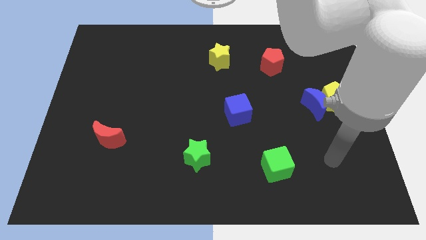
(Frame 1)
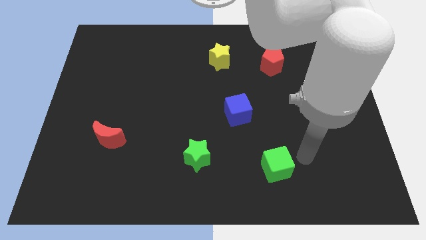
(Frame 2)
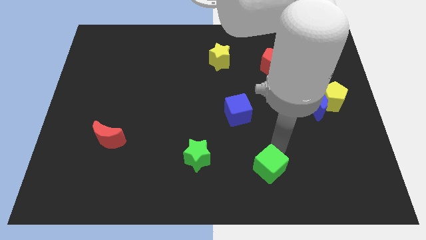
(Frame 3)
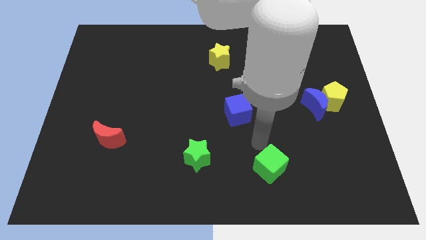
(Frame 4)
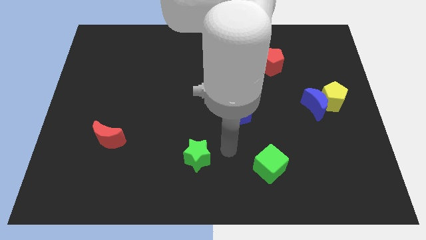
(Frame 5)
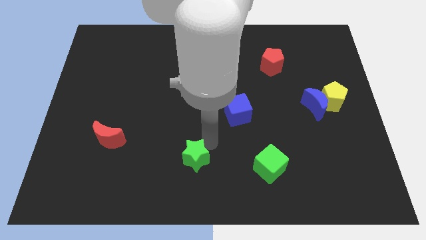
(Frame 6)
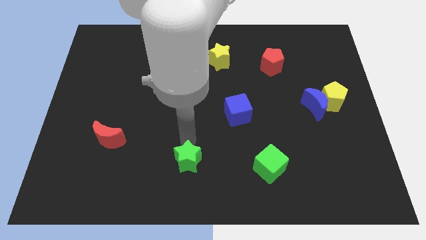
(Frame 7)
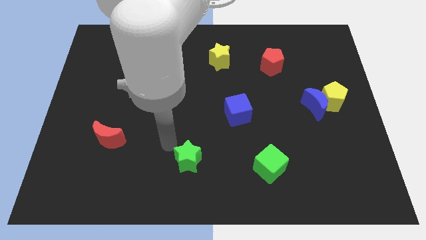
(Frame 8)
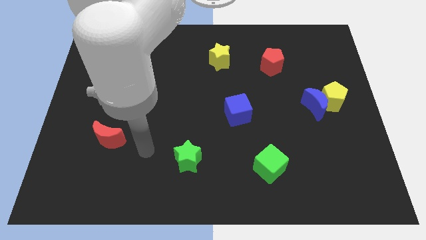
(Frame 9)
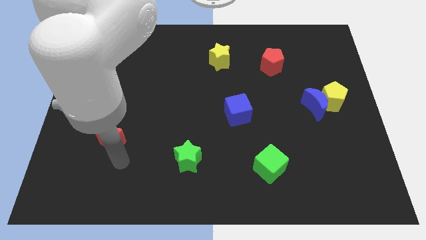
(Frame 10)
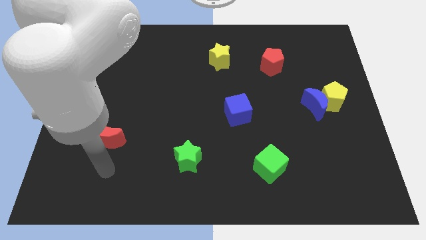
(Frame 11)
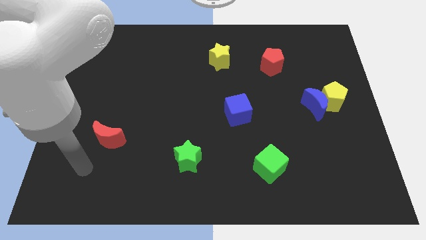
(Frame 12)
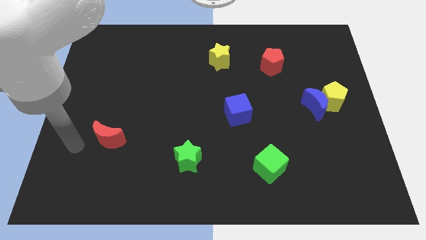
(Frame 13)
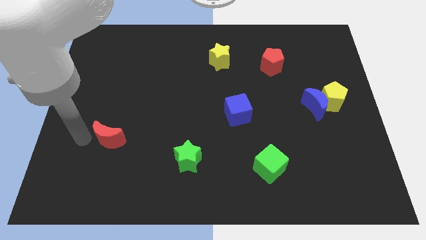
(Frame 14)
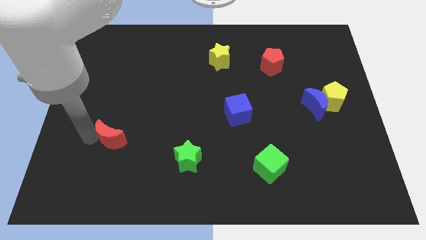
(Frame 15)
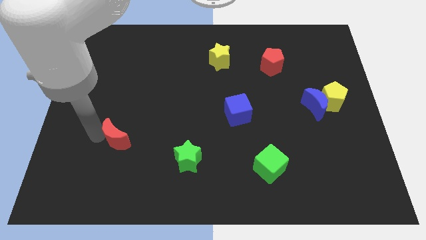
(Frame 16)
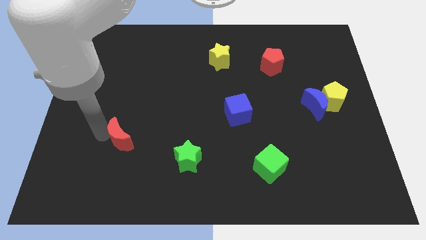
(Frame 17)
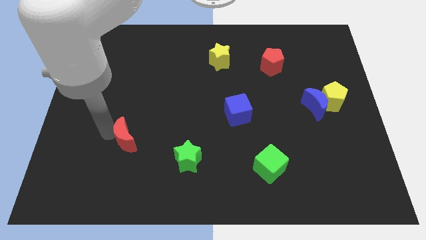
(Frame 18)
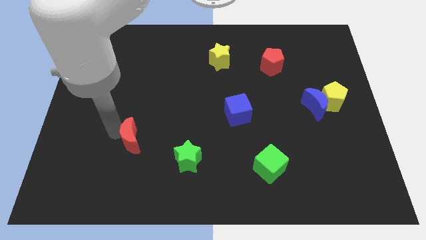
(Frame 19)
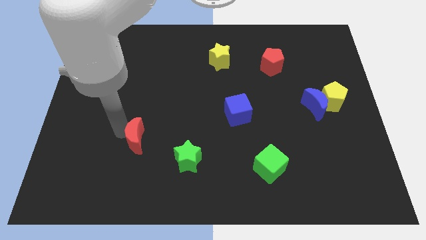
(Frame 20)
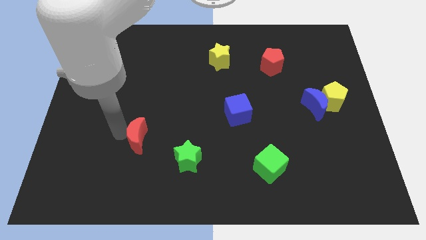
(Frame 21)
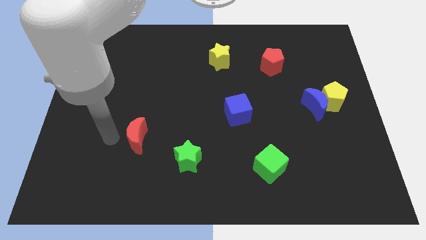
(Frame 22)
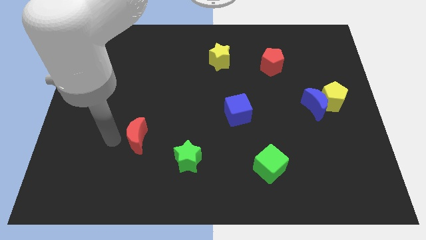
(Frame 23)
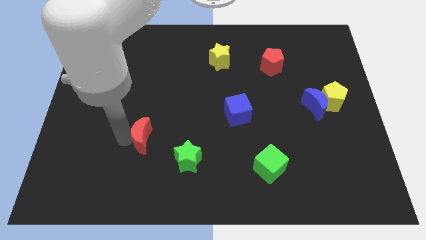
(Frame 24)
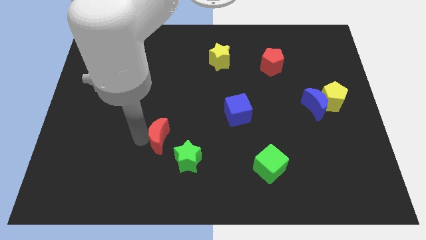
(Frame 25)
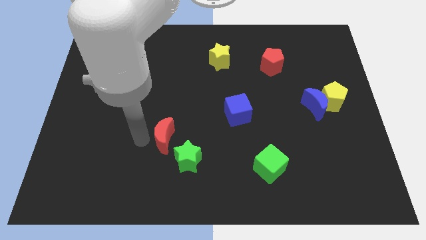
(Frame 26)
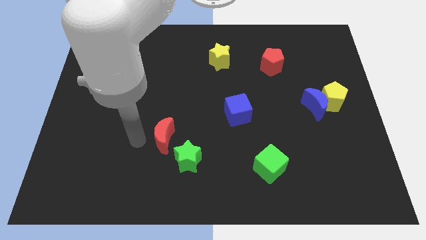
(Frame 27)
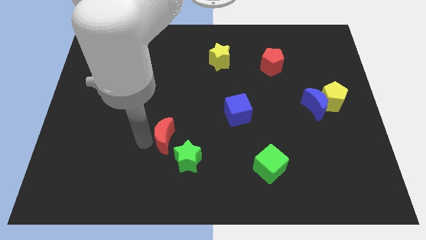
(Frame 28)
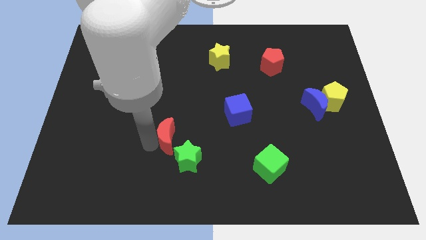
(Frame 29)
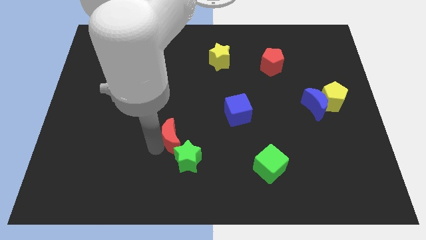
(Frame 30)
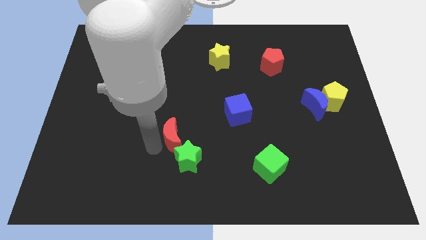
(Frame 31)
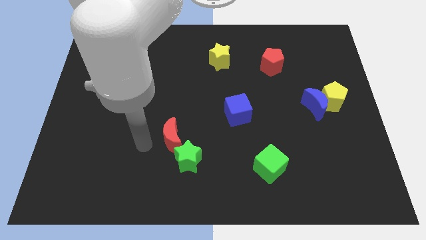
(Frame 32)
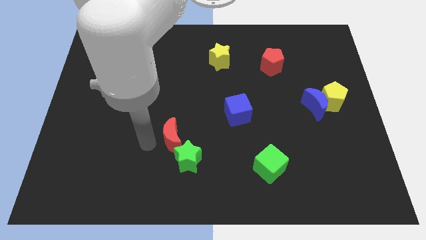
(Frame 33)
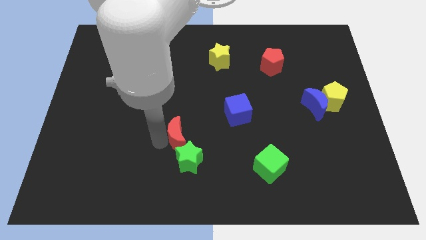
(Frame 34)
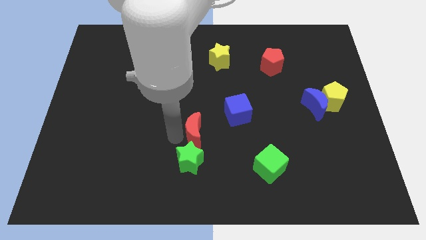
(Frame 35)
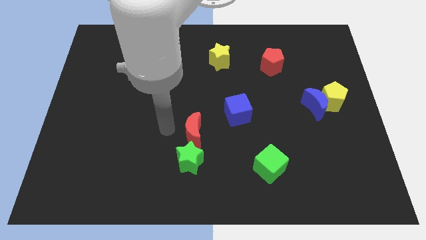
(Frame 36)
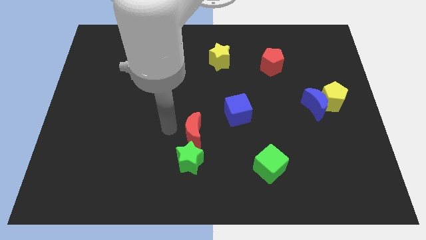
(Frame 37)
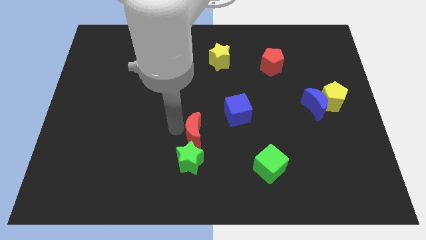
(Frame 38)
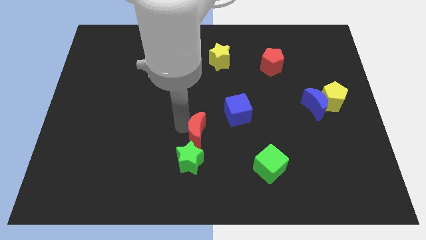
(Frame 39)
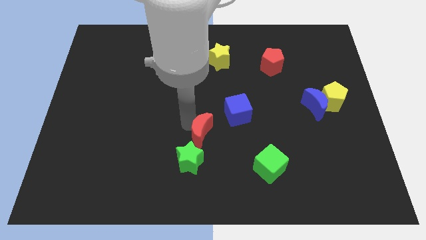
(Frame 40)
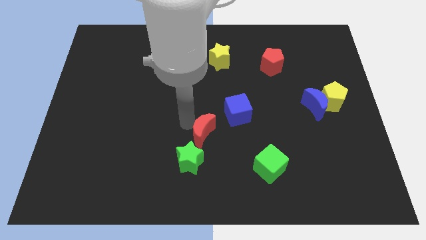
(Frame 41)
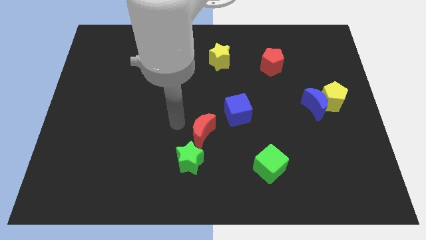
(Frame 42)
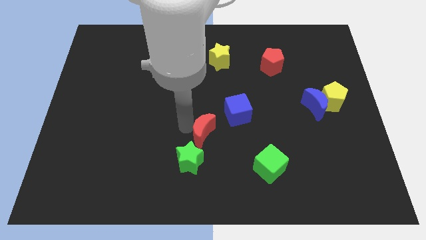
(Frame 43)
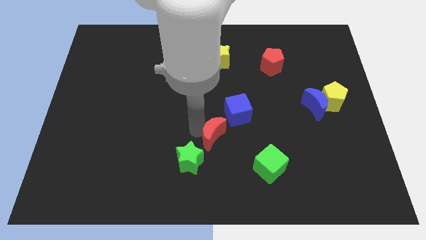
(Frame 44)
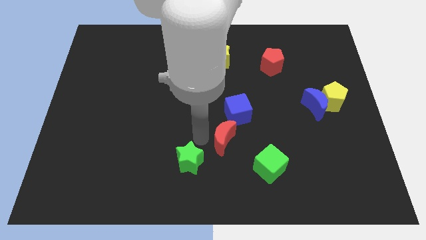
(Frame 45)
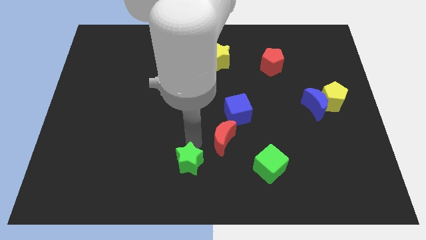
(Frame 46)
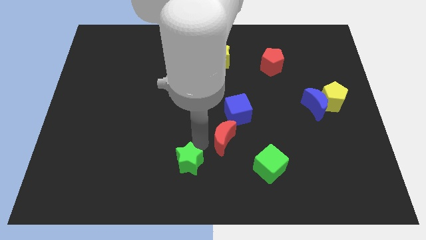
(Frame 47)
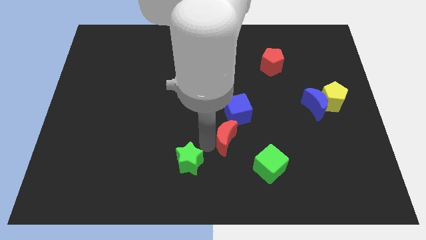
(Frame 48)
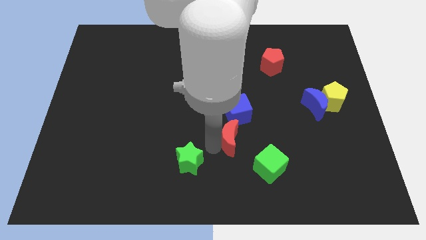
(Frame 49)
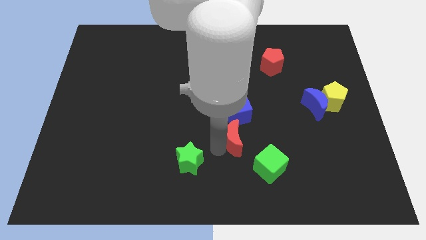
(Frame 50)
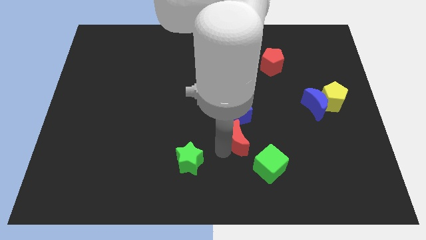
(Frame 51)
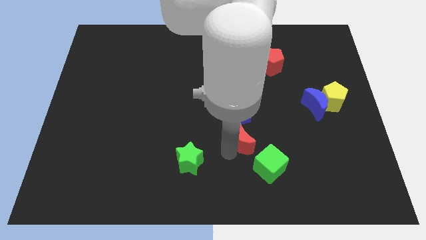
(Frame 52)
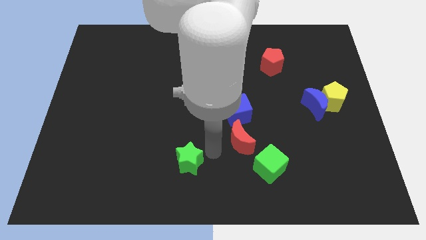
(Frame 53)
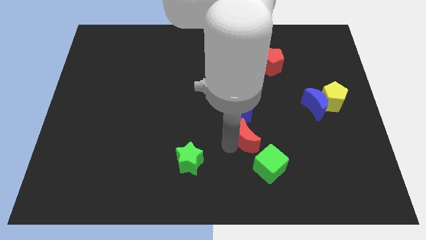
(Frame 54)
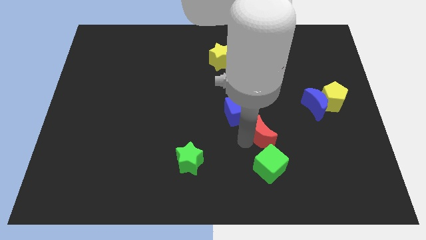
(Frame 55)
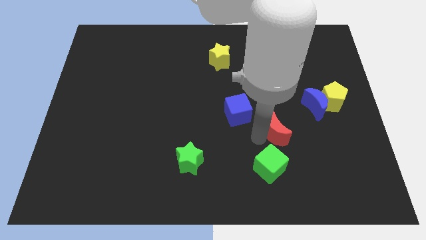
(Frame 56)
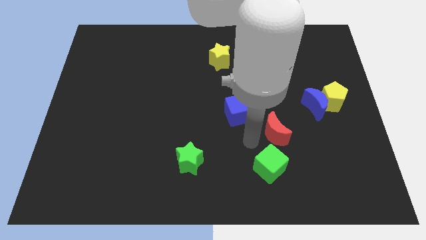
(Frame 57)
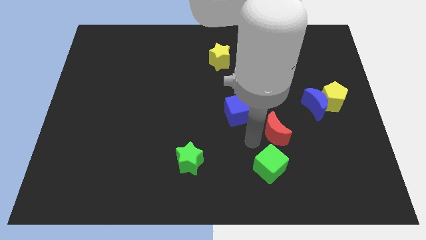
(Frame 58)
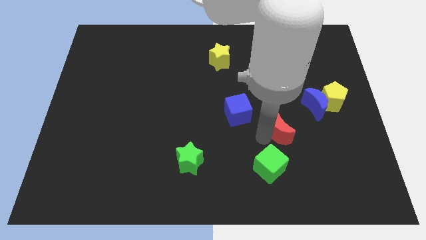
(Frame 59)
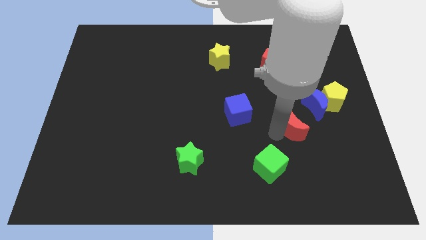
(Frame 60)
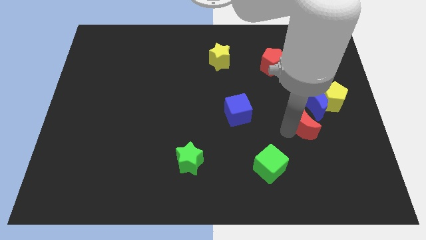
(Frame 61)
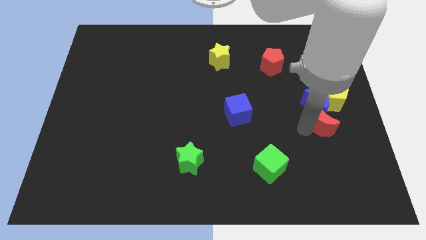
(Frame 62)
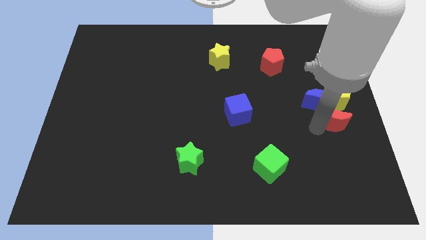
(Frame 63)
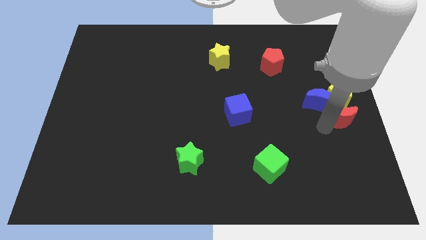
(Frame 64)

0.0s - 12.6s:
slide the red moon to the yellow pentagon

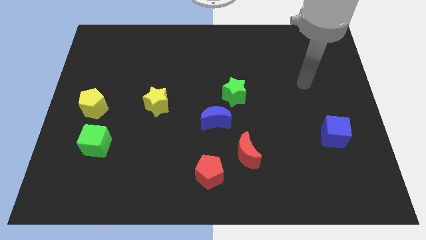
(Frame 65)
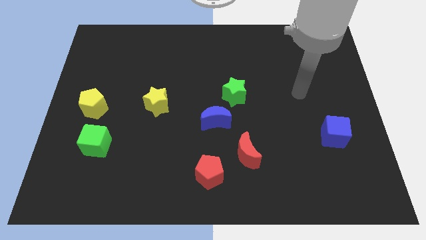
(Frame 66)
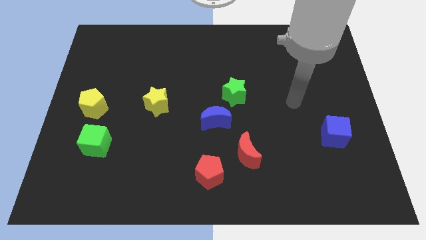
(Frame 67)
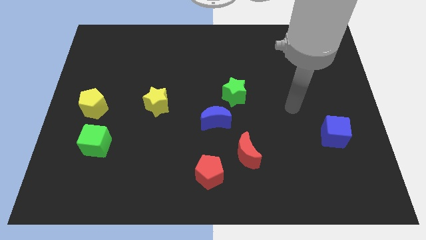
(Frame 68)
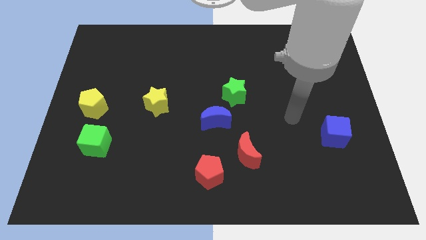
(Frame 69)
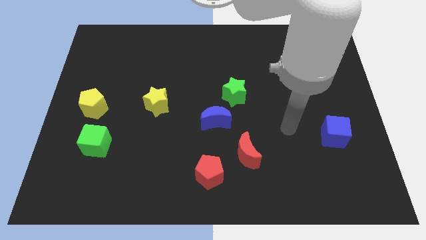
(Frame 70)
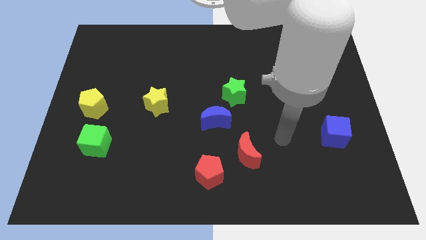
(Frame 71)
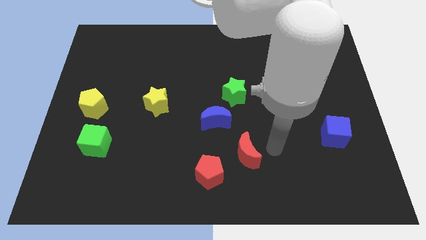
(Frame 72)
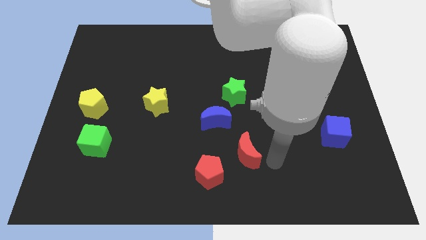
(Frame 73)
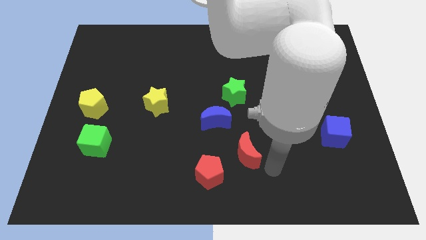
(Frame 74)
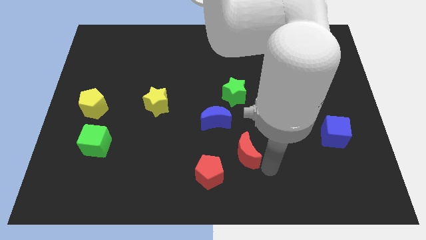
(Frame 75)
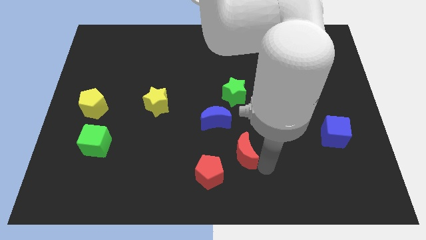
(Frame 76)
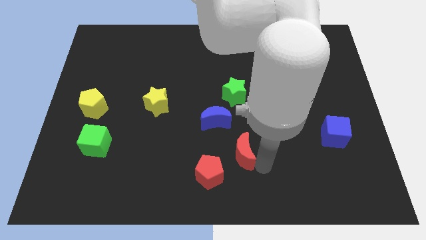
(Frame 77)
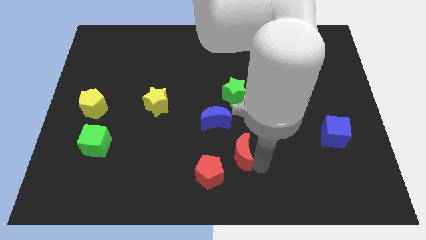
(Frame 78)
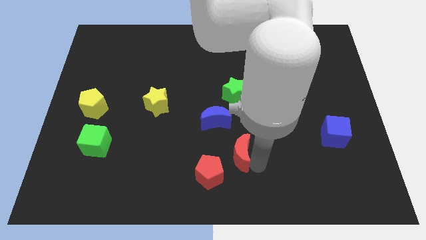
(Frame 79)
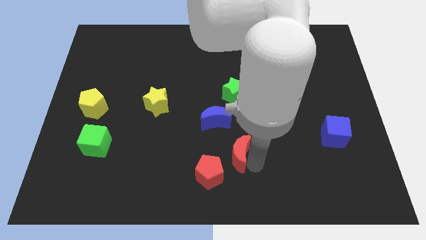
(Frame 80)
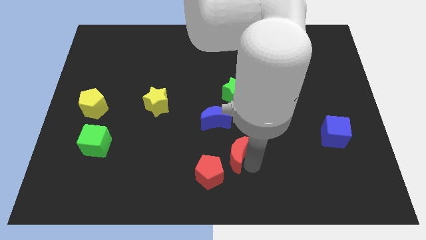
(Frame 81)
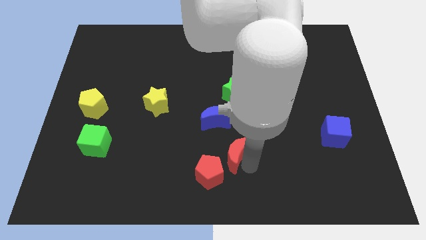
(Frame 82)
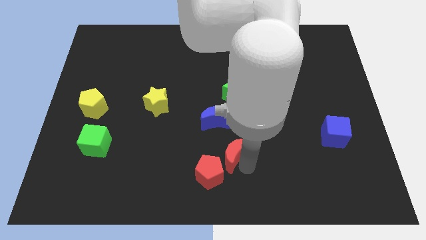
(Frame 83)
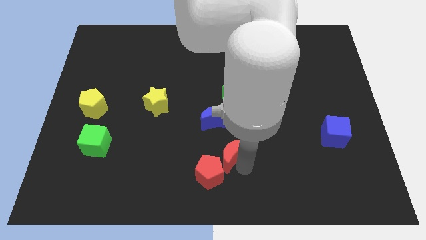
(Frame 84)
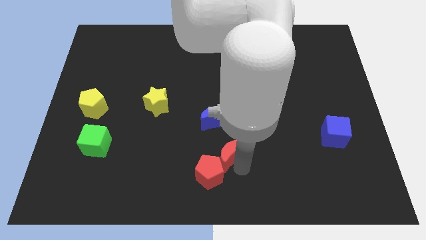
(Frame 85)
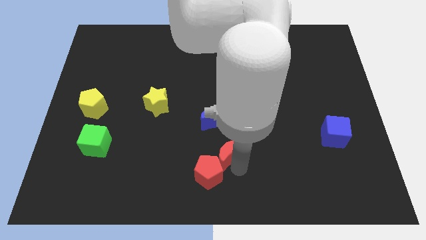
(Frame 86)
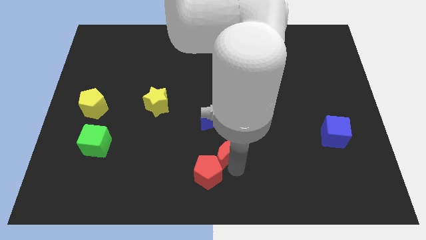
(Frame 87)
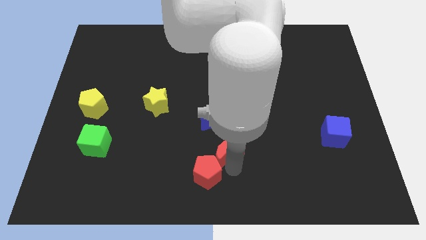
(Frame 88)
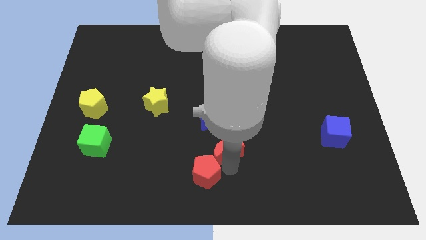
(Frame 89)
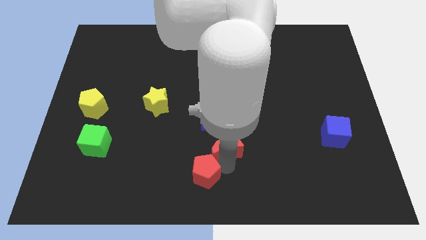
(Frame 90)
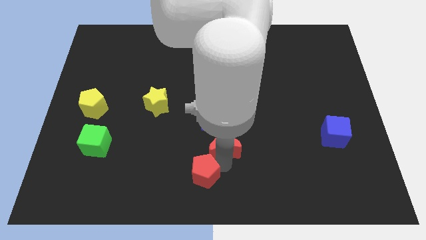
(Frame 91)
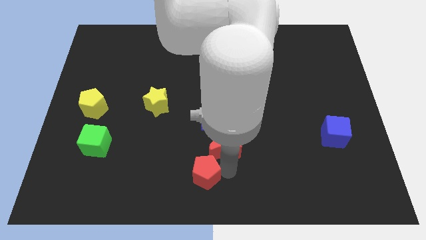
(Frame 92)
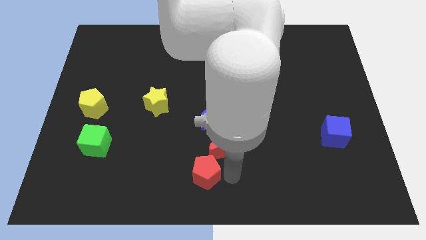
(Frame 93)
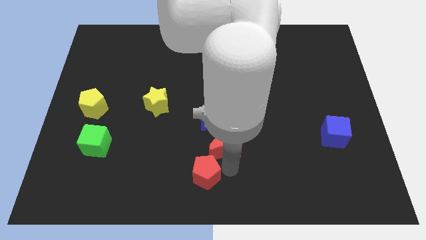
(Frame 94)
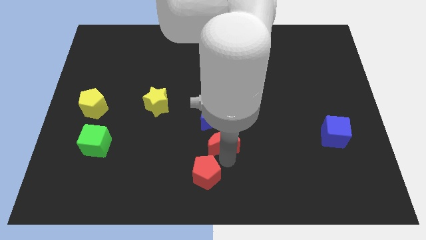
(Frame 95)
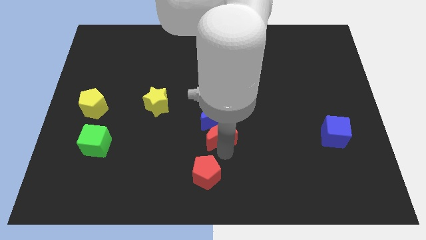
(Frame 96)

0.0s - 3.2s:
put the red moon close to the blue moon
